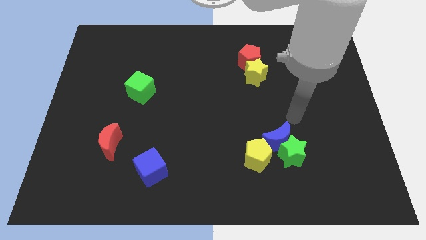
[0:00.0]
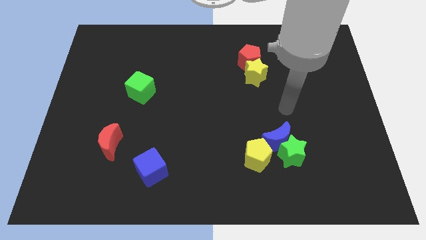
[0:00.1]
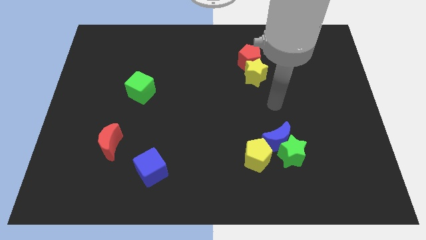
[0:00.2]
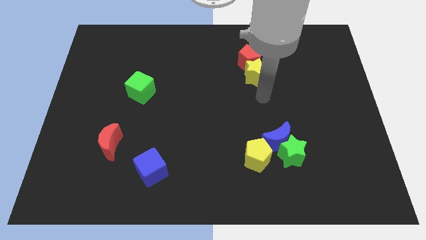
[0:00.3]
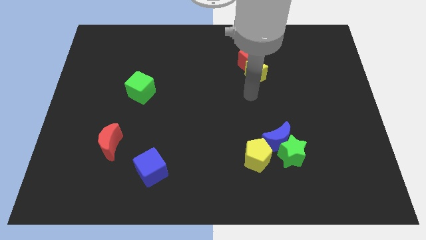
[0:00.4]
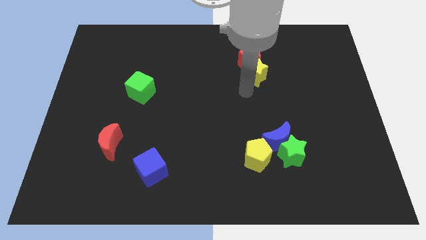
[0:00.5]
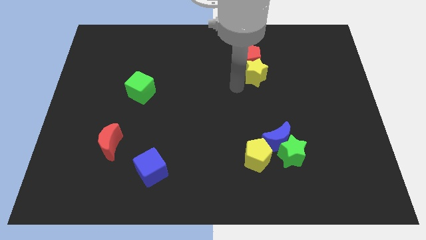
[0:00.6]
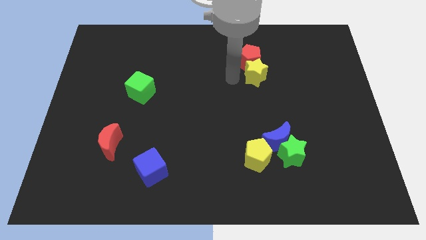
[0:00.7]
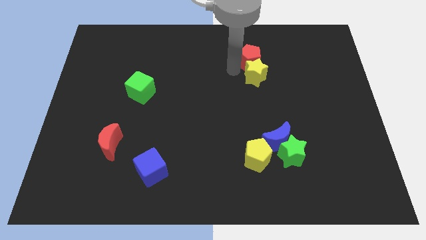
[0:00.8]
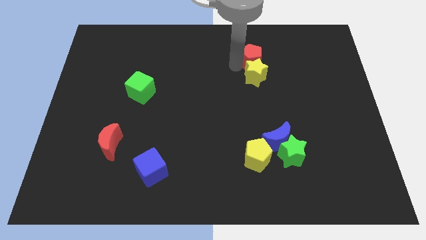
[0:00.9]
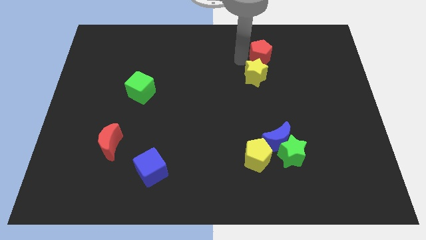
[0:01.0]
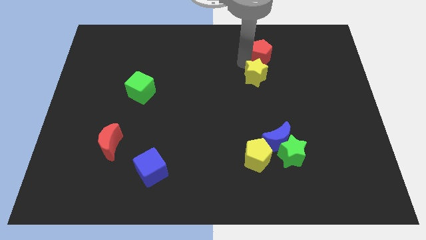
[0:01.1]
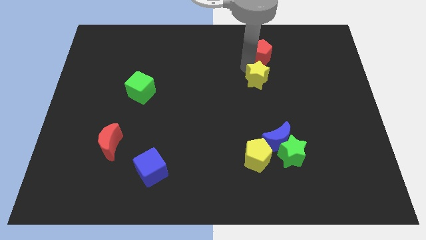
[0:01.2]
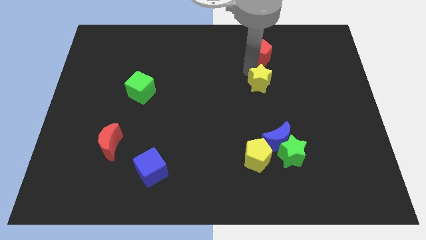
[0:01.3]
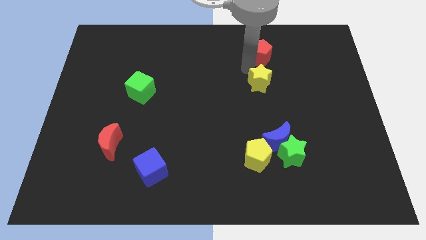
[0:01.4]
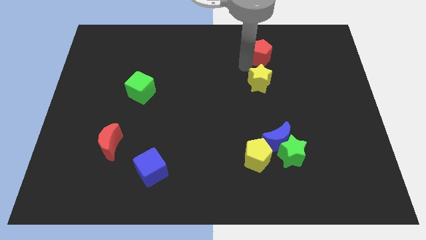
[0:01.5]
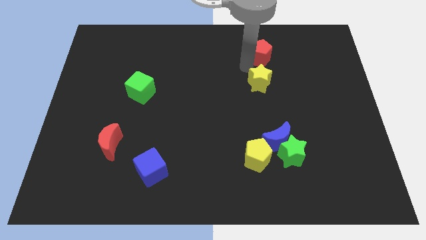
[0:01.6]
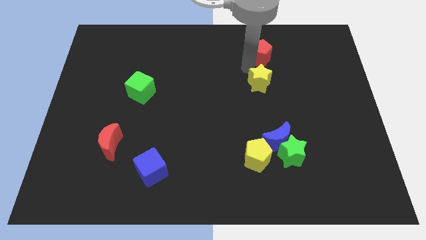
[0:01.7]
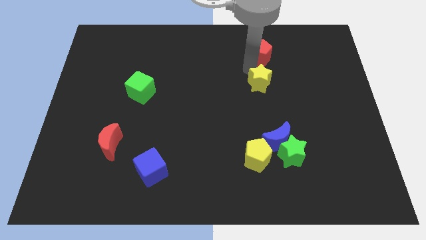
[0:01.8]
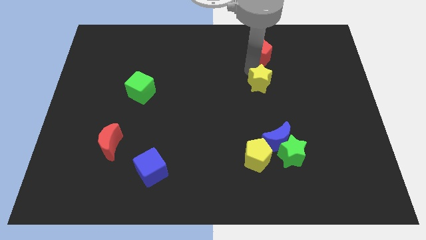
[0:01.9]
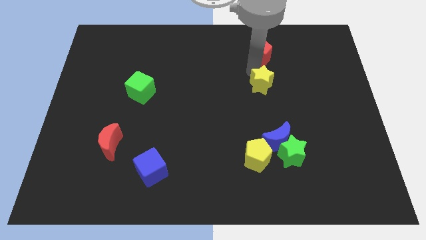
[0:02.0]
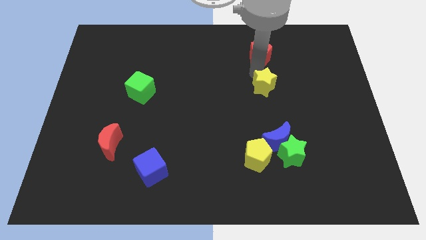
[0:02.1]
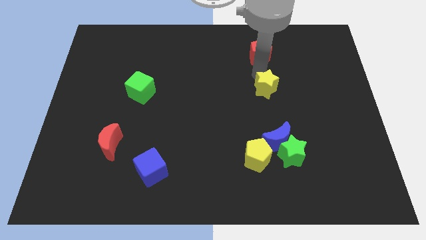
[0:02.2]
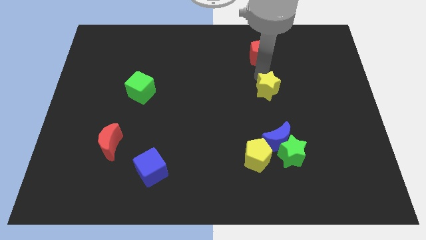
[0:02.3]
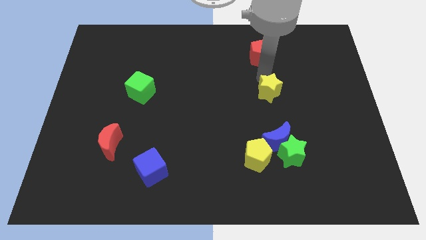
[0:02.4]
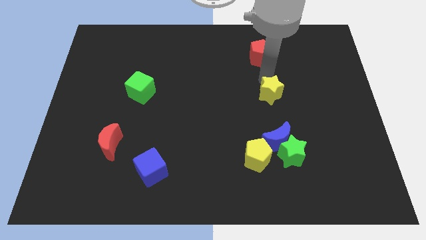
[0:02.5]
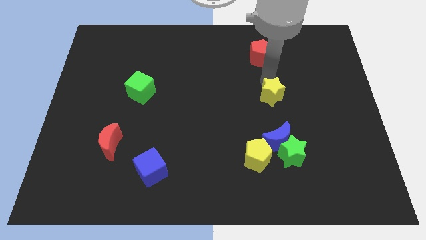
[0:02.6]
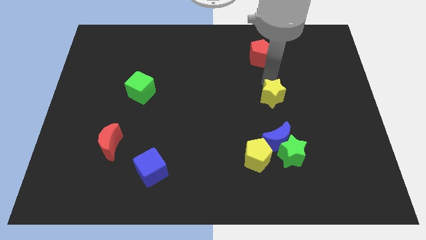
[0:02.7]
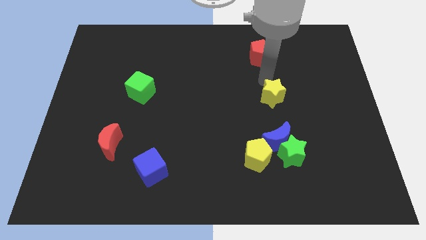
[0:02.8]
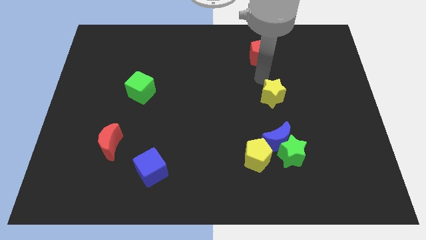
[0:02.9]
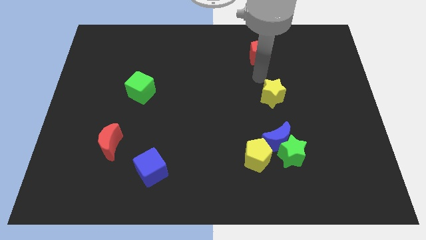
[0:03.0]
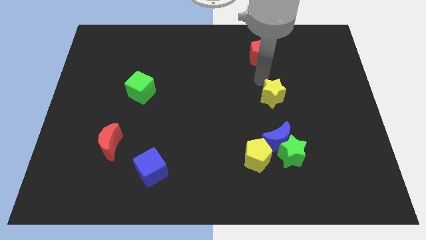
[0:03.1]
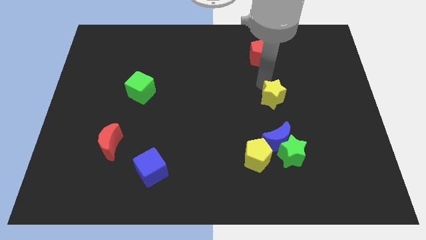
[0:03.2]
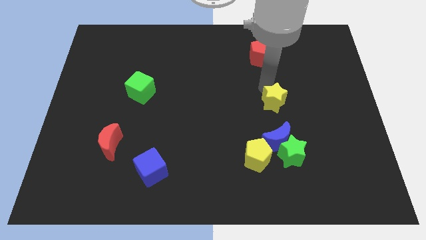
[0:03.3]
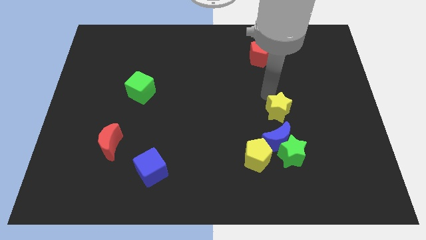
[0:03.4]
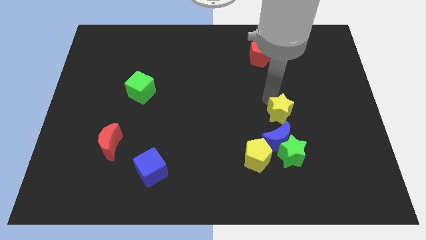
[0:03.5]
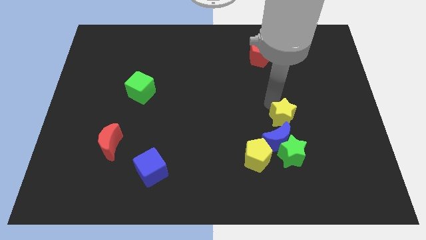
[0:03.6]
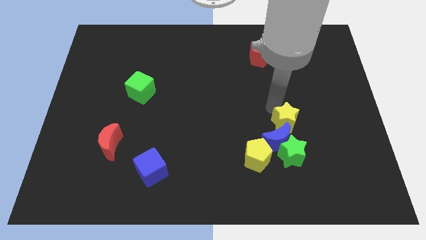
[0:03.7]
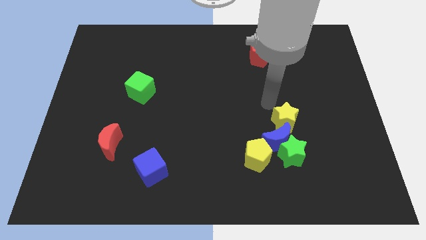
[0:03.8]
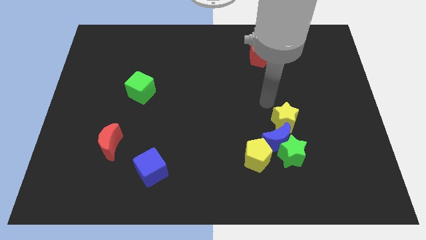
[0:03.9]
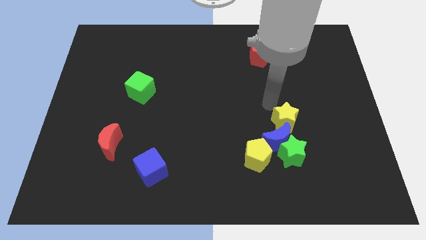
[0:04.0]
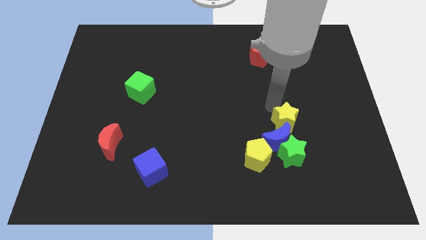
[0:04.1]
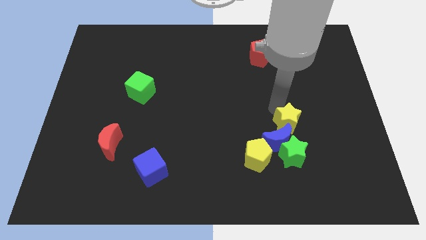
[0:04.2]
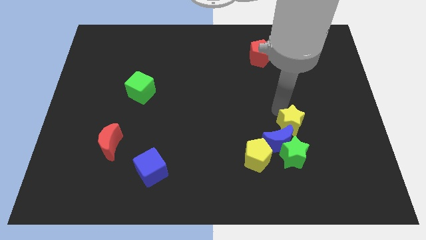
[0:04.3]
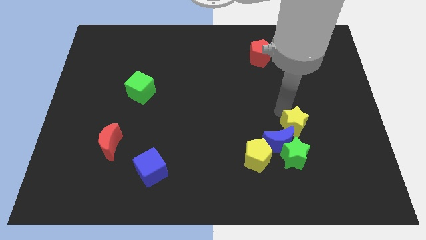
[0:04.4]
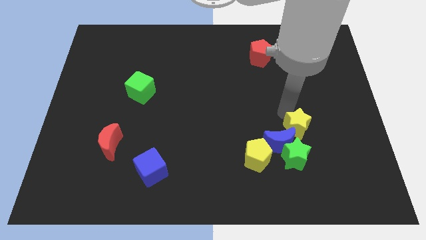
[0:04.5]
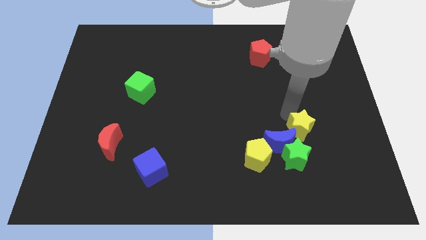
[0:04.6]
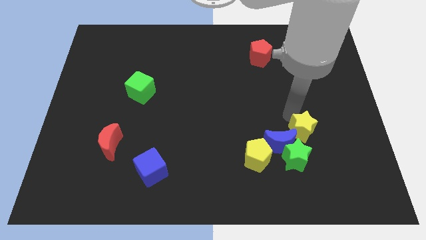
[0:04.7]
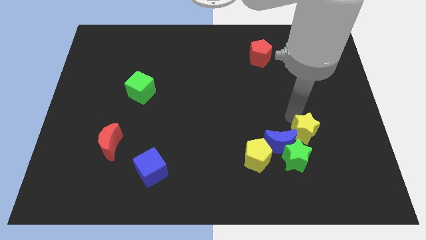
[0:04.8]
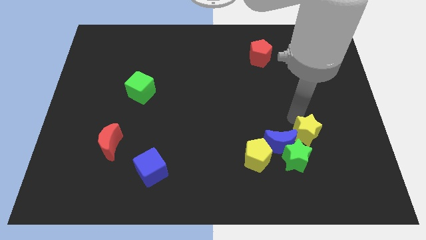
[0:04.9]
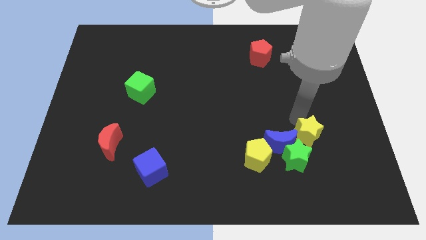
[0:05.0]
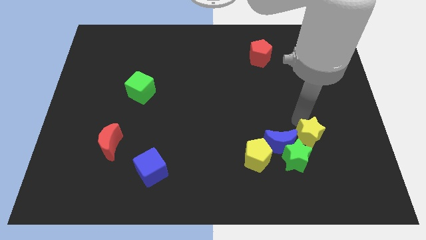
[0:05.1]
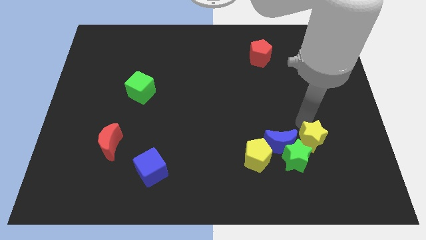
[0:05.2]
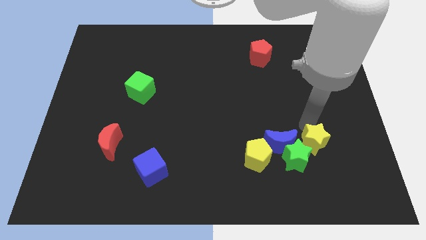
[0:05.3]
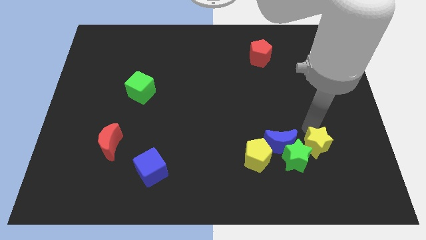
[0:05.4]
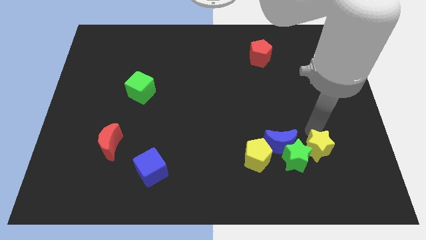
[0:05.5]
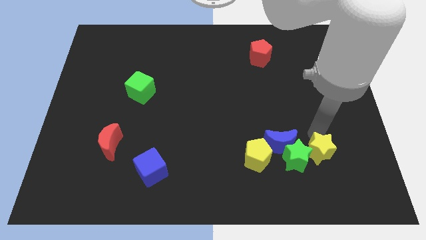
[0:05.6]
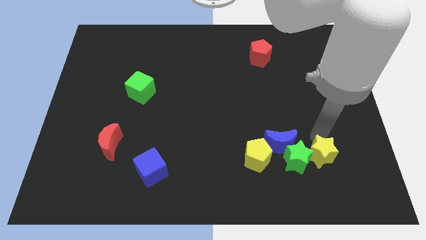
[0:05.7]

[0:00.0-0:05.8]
move the yellow star to the bottom right side of the green star
